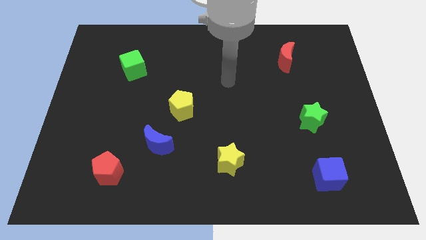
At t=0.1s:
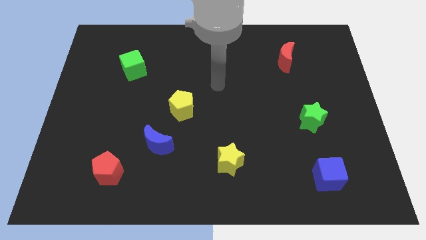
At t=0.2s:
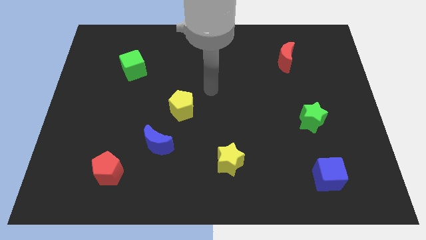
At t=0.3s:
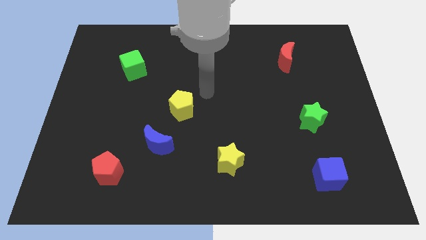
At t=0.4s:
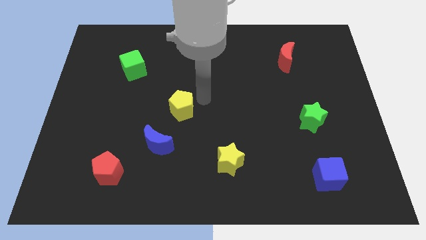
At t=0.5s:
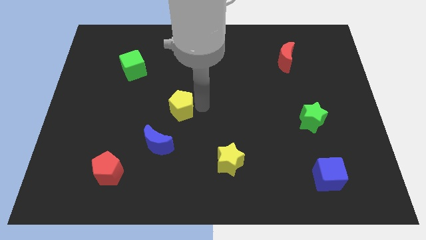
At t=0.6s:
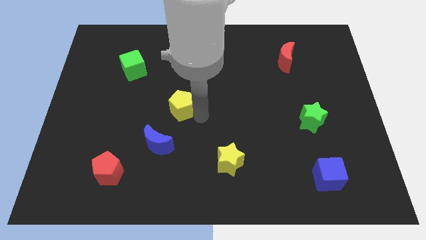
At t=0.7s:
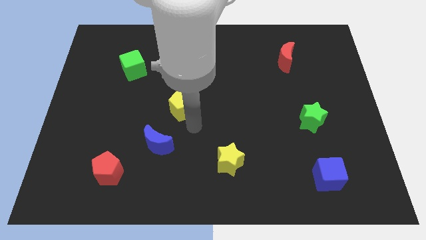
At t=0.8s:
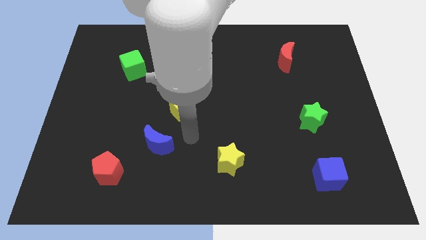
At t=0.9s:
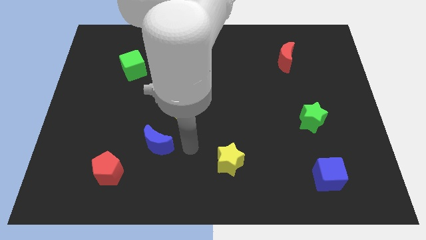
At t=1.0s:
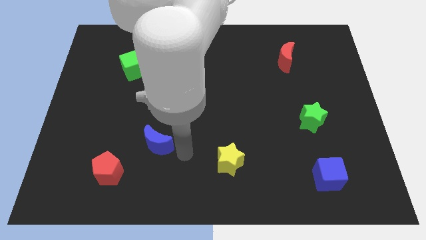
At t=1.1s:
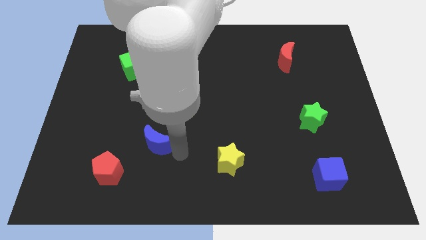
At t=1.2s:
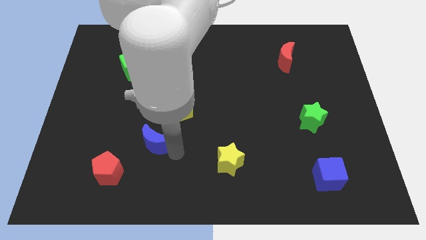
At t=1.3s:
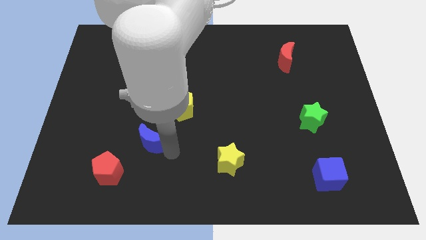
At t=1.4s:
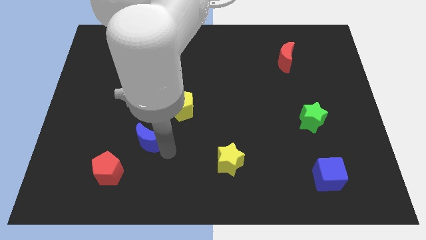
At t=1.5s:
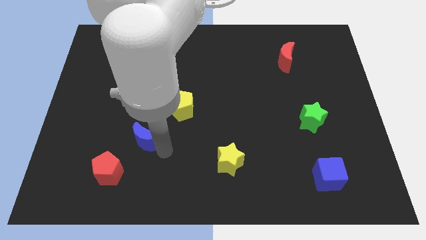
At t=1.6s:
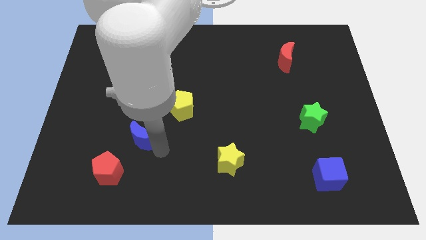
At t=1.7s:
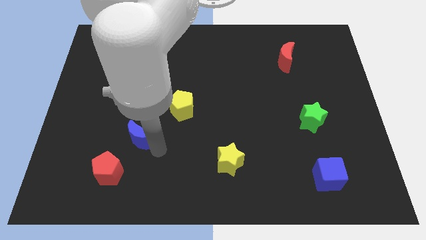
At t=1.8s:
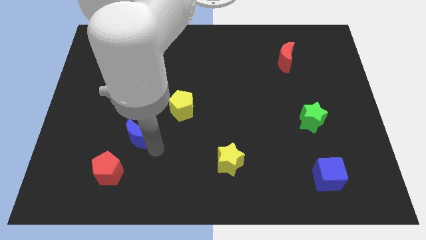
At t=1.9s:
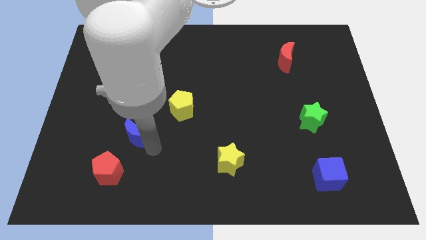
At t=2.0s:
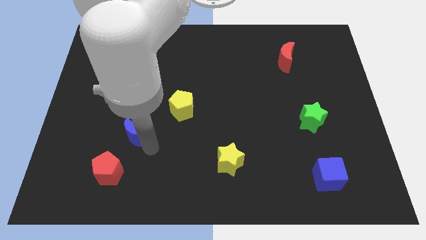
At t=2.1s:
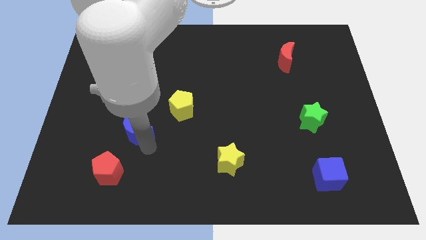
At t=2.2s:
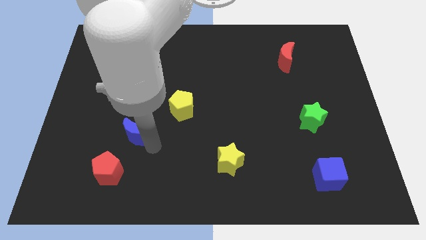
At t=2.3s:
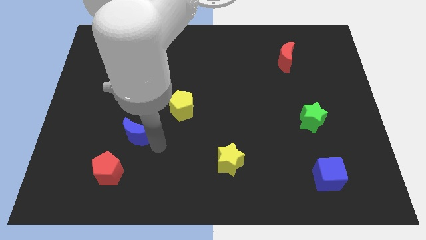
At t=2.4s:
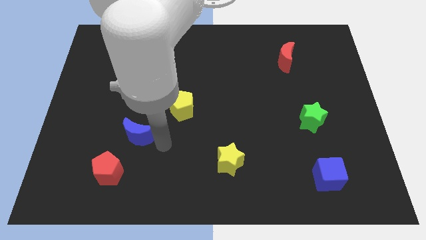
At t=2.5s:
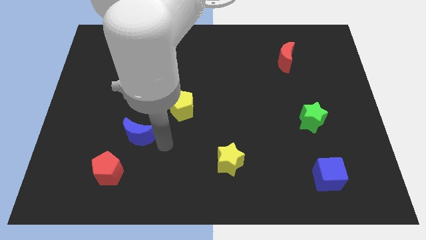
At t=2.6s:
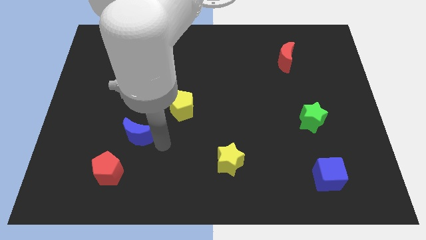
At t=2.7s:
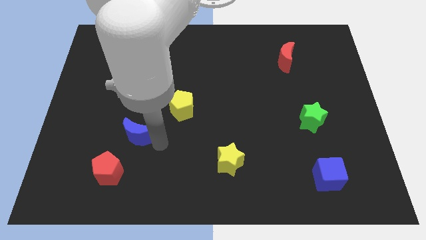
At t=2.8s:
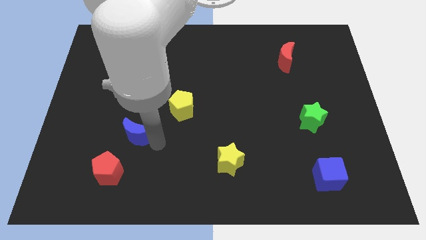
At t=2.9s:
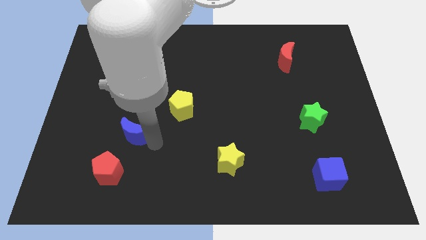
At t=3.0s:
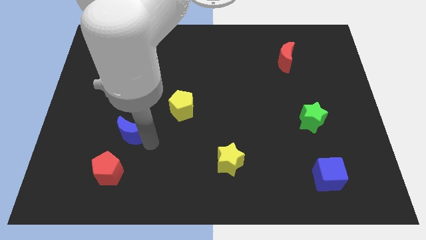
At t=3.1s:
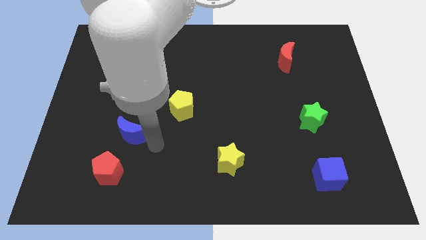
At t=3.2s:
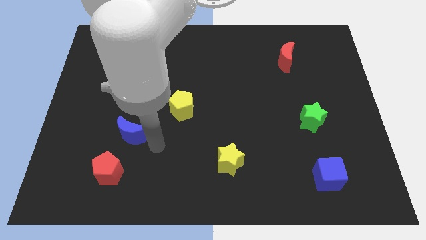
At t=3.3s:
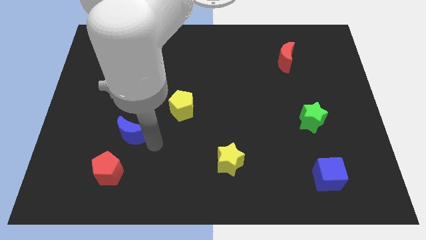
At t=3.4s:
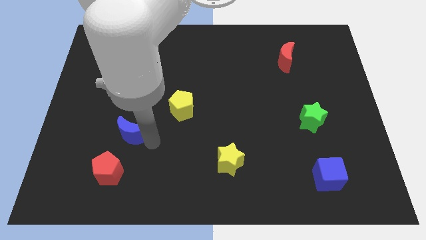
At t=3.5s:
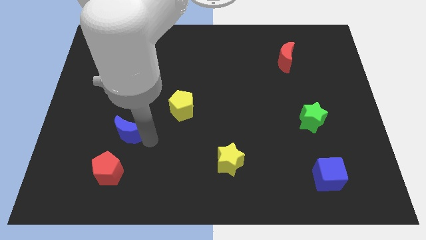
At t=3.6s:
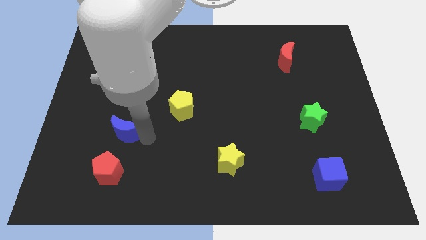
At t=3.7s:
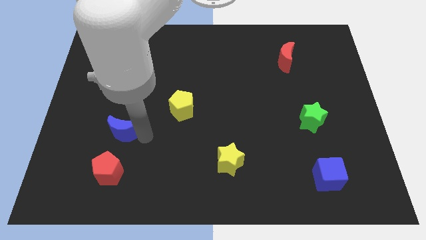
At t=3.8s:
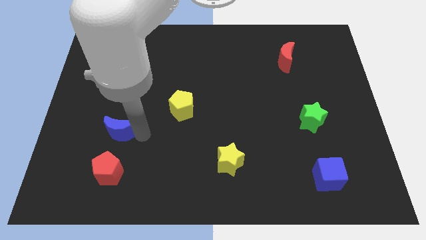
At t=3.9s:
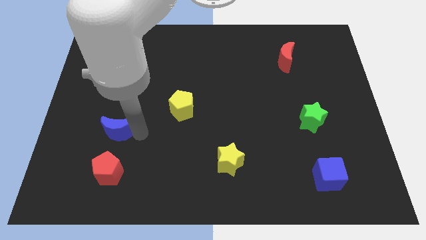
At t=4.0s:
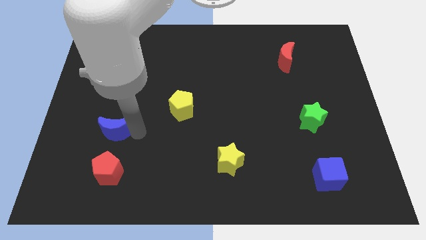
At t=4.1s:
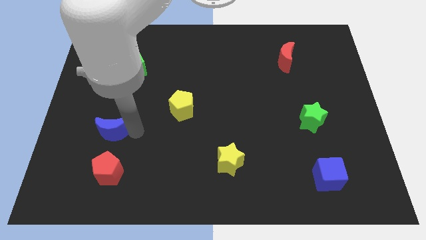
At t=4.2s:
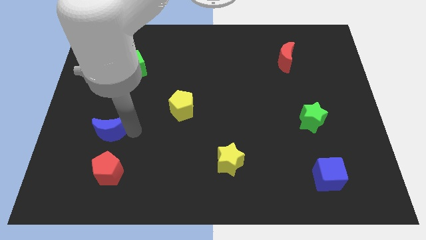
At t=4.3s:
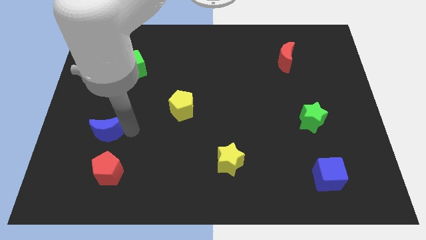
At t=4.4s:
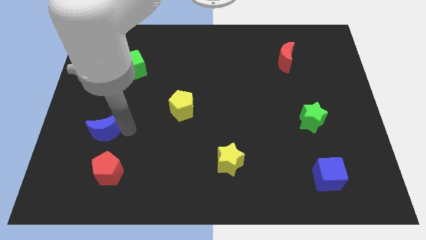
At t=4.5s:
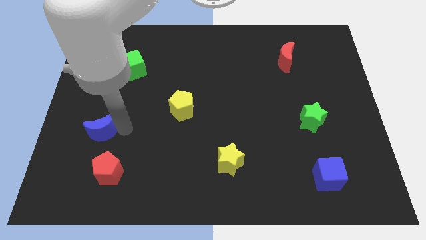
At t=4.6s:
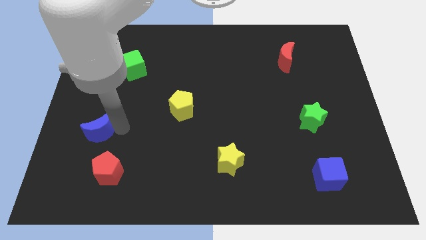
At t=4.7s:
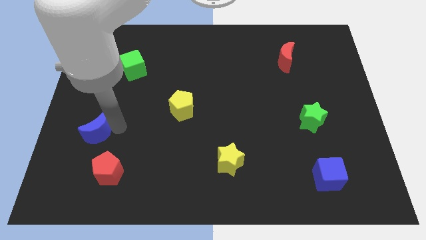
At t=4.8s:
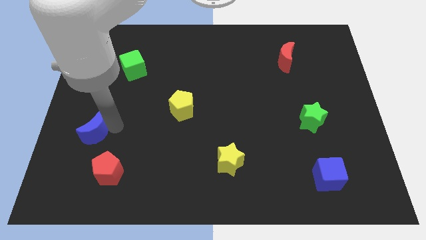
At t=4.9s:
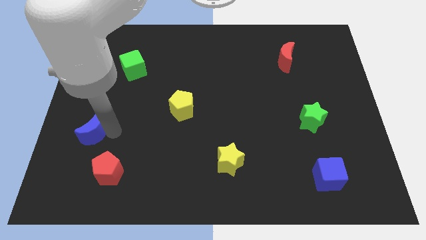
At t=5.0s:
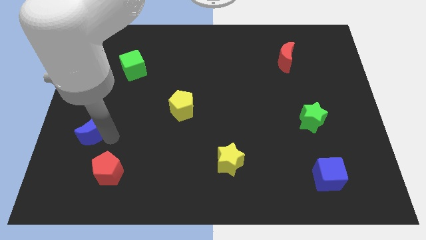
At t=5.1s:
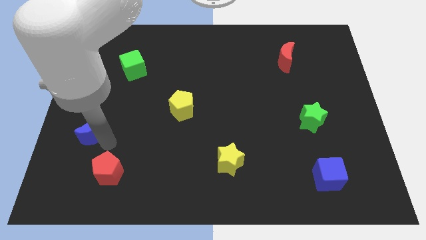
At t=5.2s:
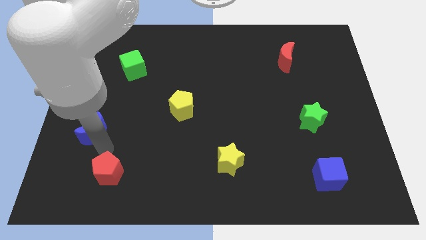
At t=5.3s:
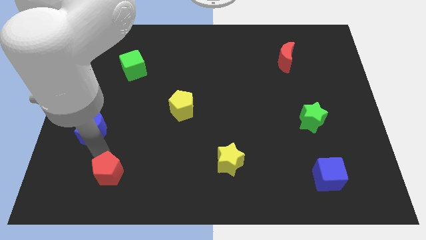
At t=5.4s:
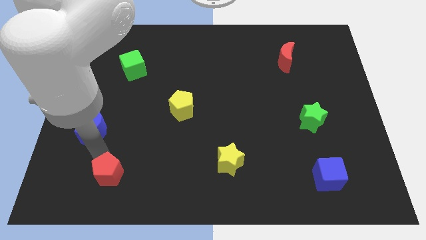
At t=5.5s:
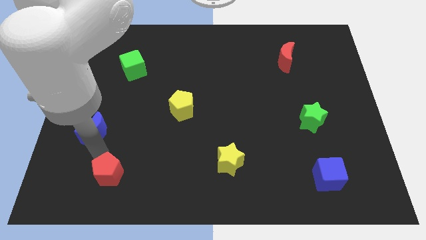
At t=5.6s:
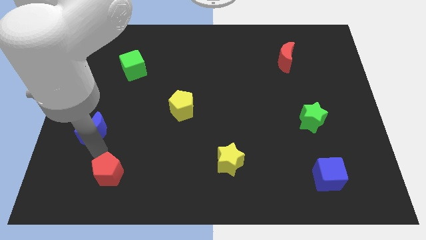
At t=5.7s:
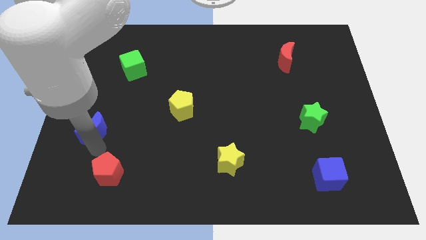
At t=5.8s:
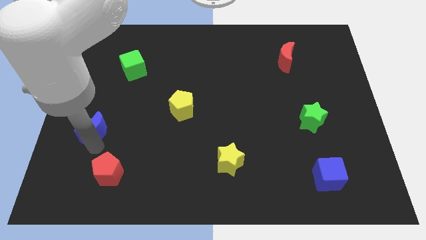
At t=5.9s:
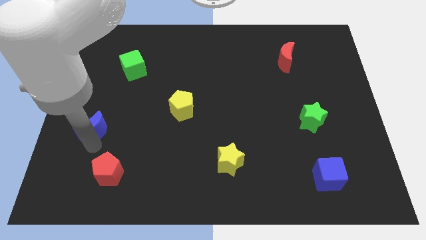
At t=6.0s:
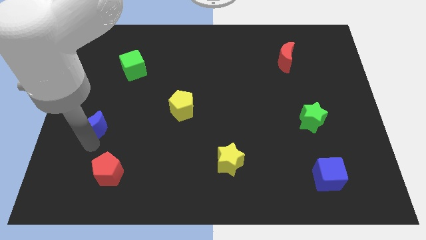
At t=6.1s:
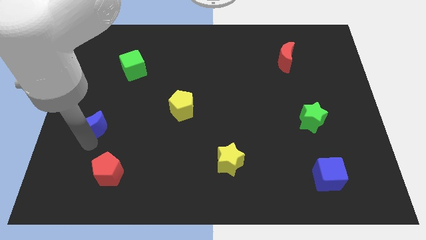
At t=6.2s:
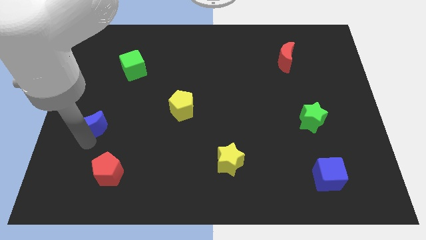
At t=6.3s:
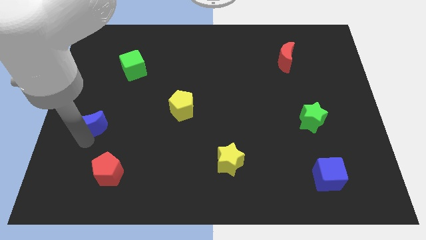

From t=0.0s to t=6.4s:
move the blue moon to the left side
